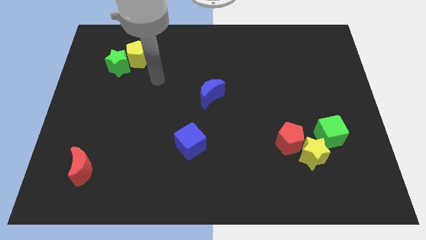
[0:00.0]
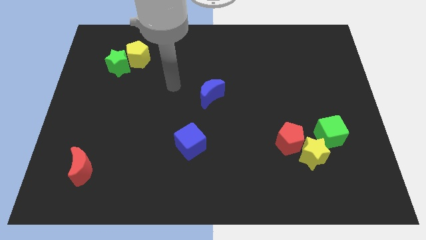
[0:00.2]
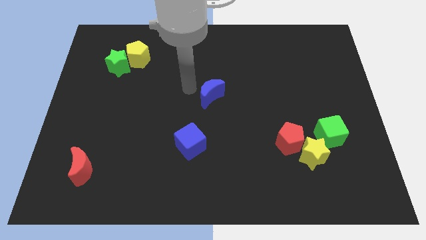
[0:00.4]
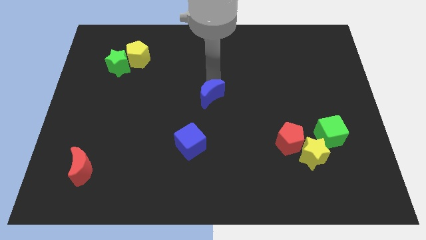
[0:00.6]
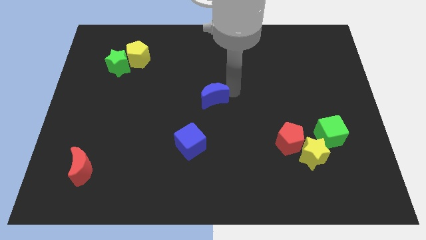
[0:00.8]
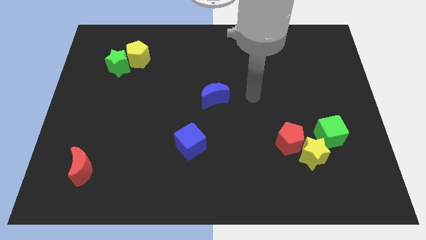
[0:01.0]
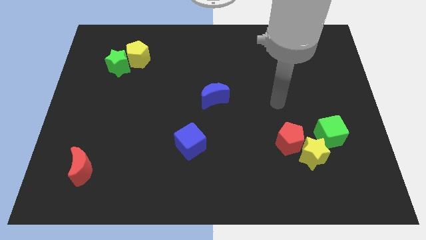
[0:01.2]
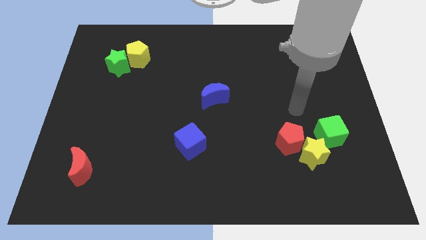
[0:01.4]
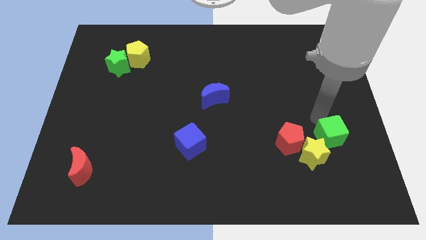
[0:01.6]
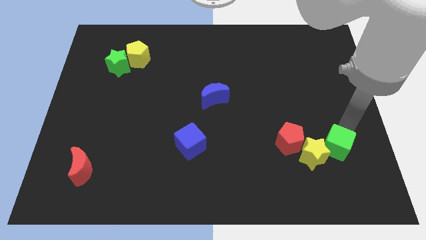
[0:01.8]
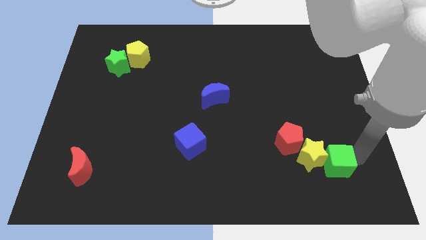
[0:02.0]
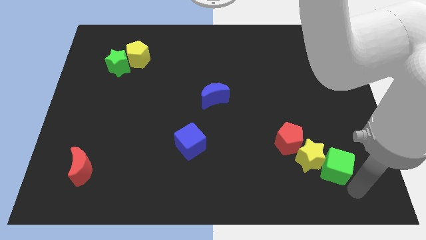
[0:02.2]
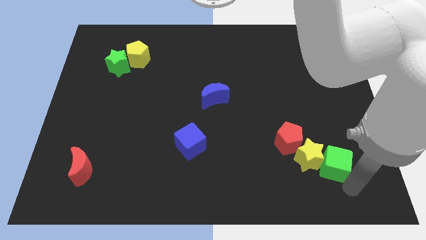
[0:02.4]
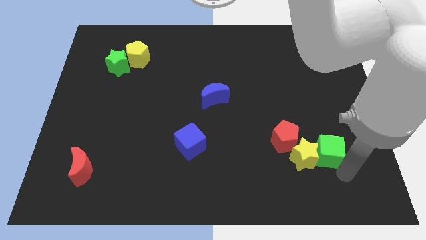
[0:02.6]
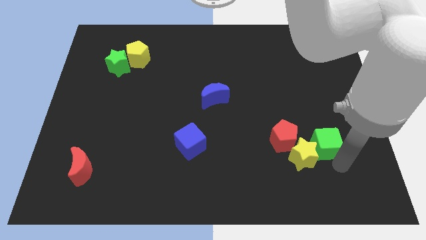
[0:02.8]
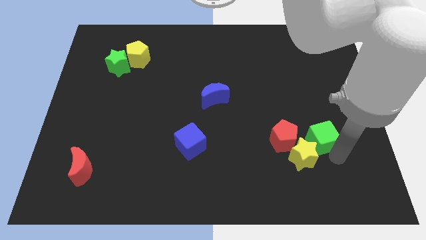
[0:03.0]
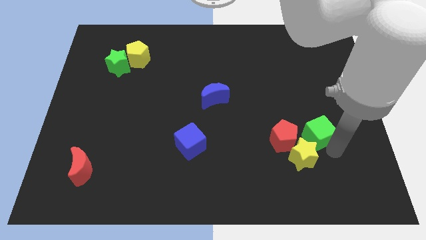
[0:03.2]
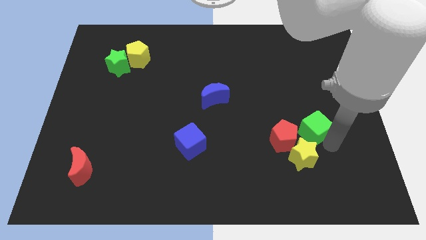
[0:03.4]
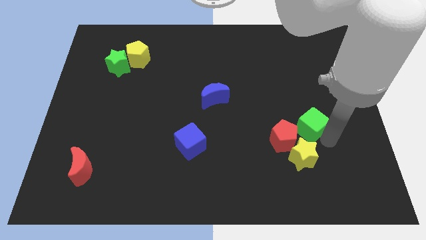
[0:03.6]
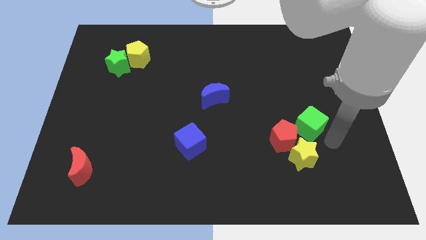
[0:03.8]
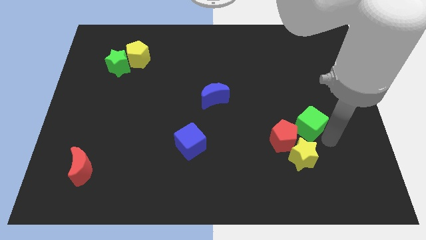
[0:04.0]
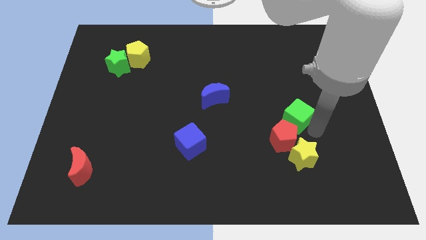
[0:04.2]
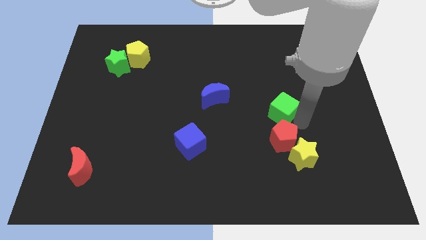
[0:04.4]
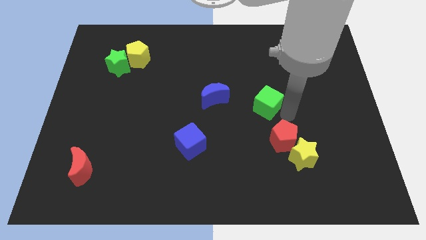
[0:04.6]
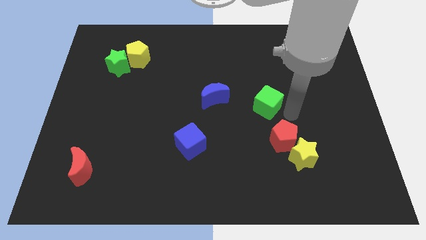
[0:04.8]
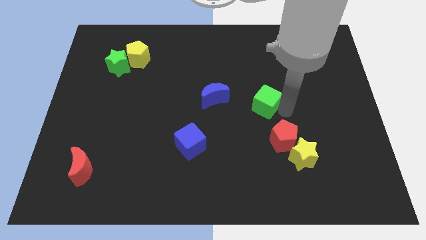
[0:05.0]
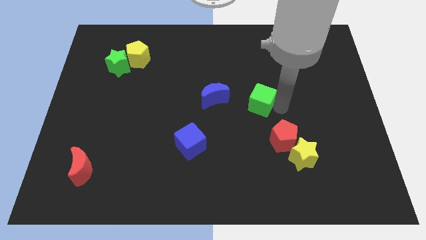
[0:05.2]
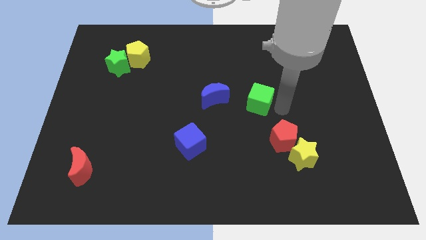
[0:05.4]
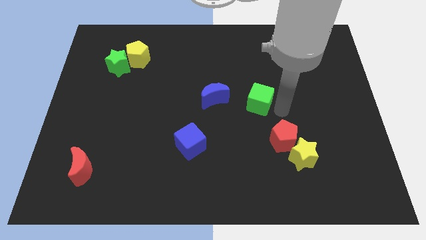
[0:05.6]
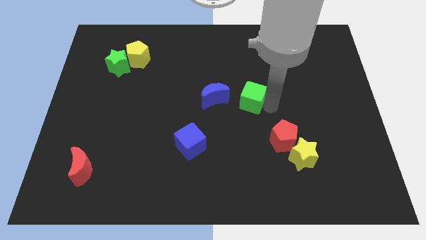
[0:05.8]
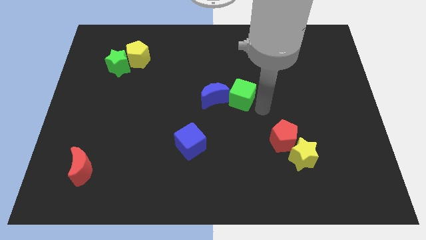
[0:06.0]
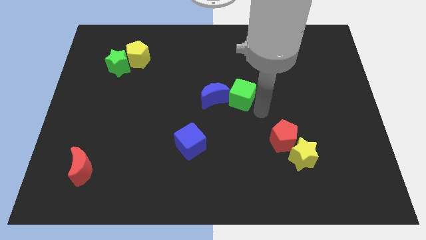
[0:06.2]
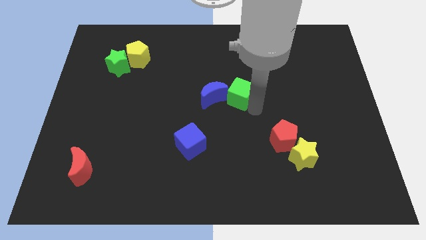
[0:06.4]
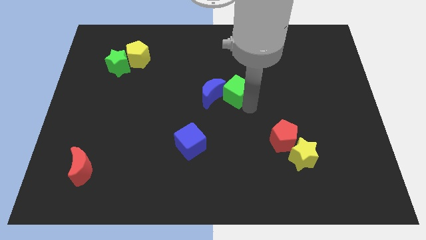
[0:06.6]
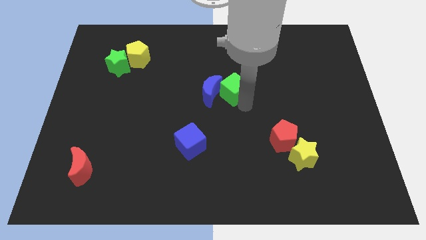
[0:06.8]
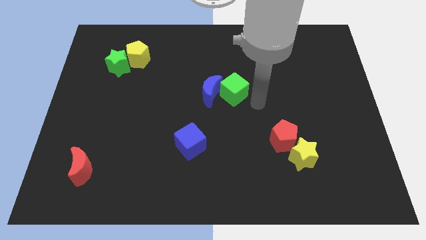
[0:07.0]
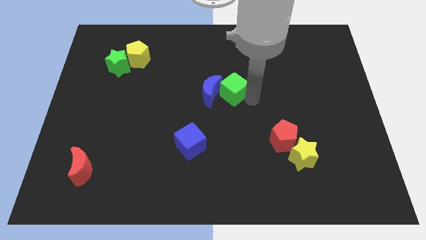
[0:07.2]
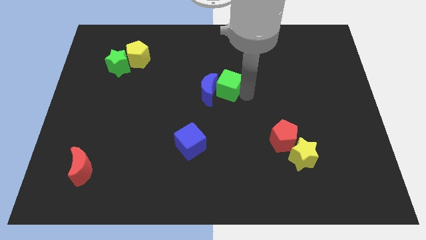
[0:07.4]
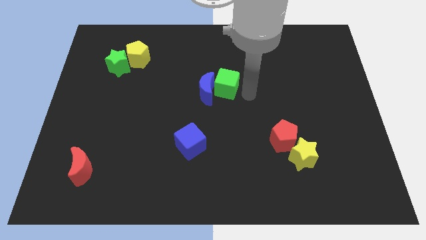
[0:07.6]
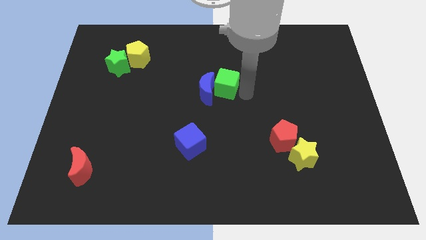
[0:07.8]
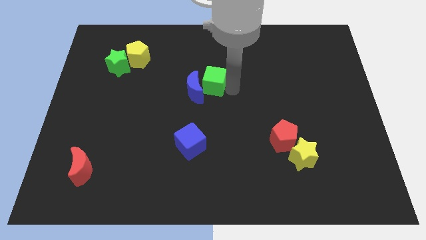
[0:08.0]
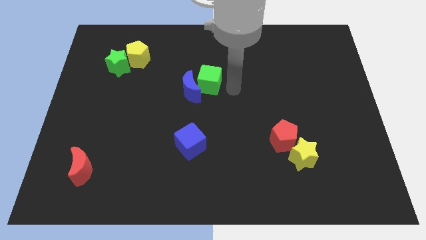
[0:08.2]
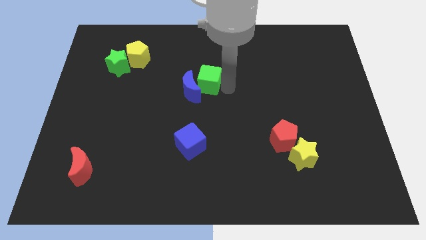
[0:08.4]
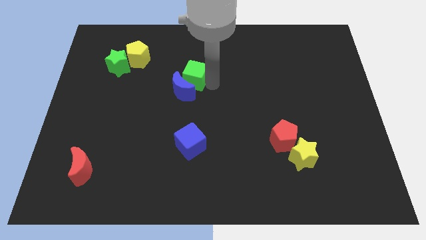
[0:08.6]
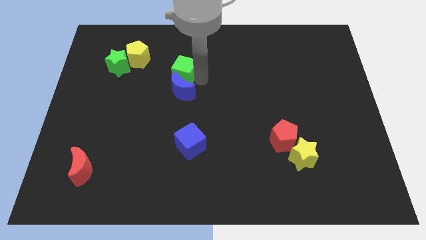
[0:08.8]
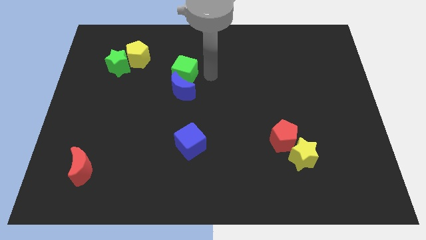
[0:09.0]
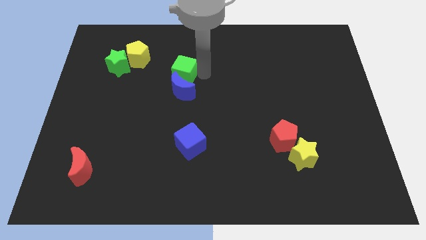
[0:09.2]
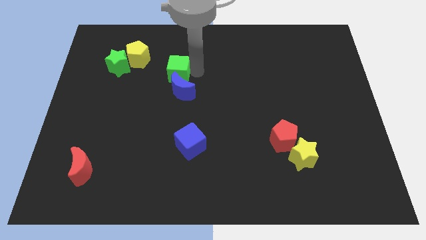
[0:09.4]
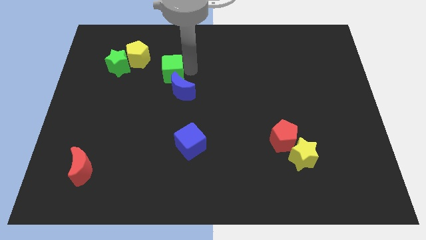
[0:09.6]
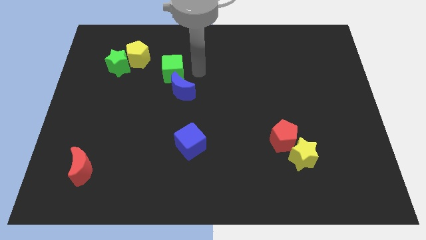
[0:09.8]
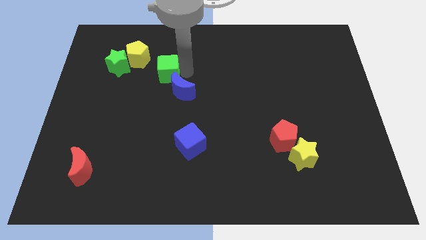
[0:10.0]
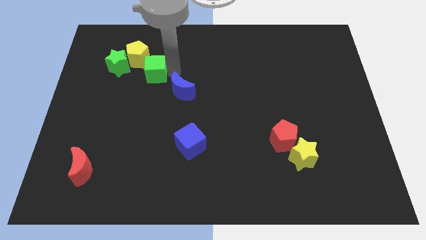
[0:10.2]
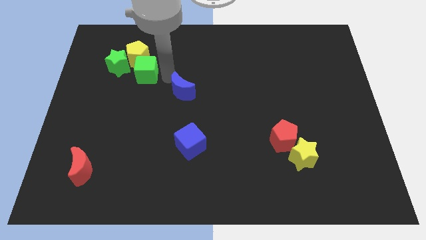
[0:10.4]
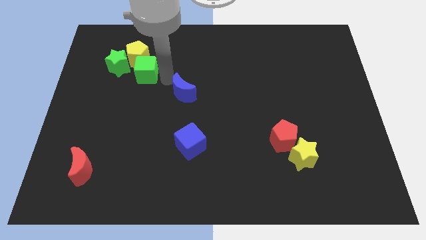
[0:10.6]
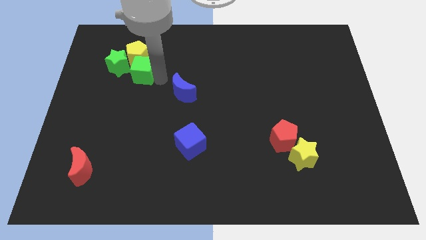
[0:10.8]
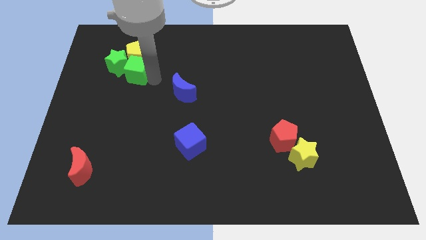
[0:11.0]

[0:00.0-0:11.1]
push the green cube next to the green star

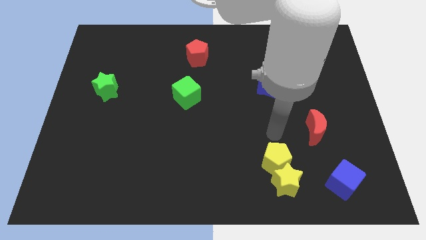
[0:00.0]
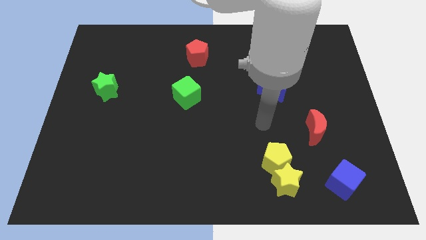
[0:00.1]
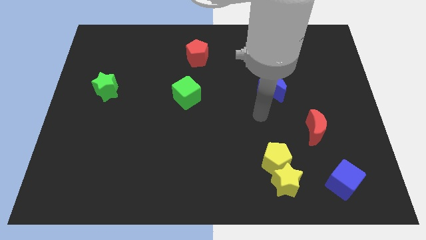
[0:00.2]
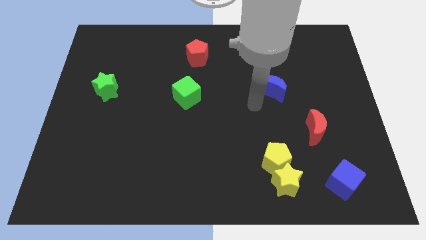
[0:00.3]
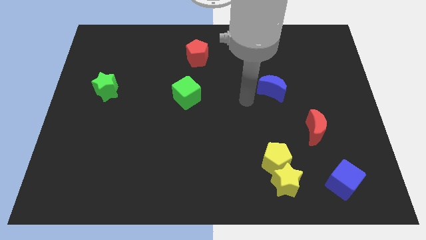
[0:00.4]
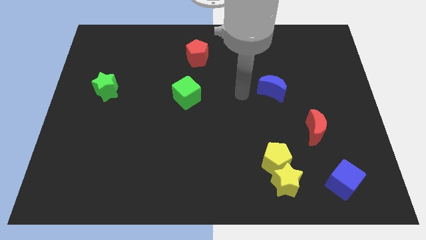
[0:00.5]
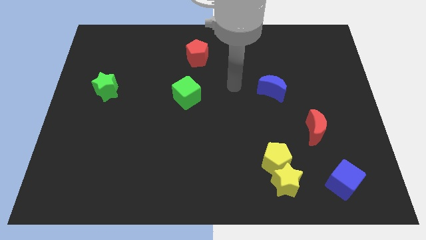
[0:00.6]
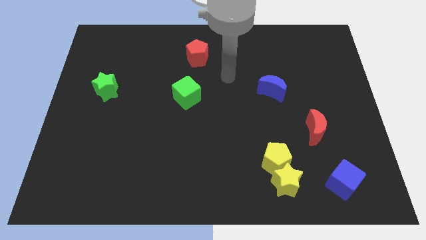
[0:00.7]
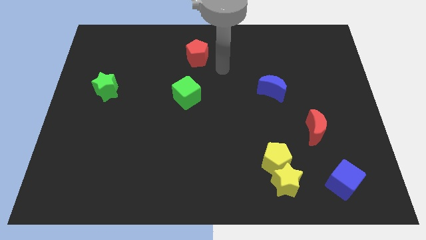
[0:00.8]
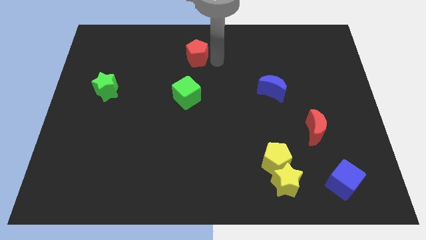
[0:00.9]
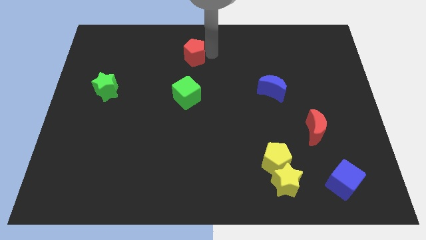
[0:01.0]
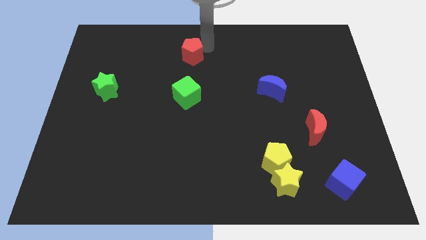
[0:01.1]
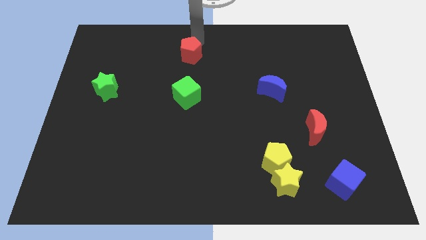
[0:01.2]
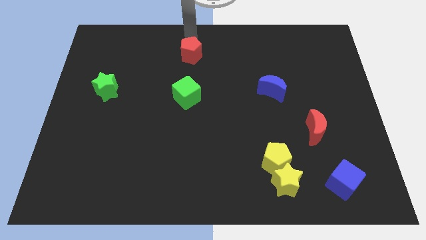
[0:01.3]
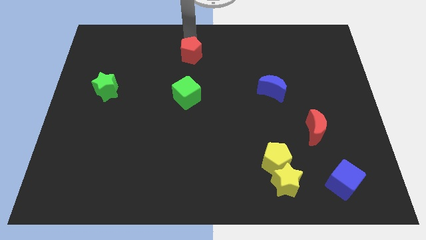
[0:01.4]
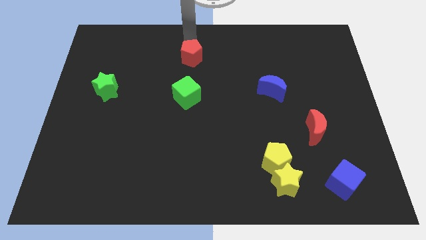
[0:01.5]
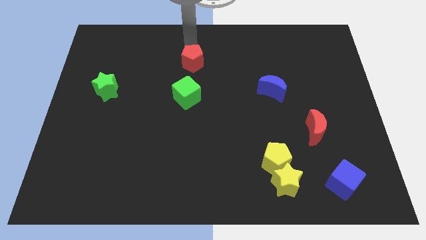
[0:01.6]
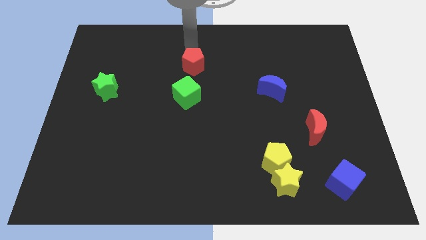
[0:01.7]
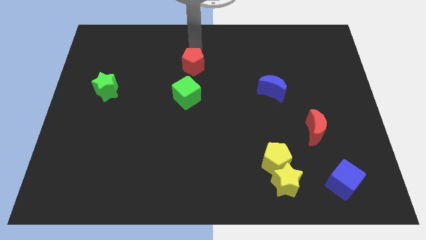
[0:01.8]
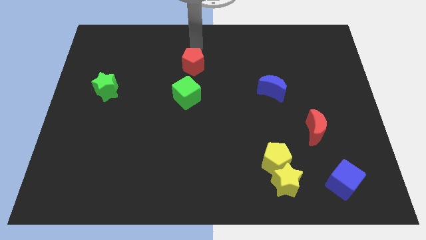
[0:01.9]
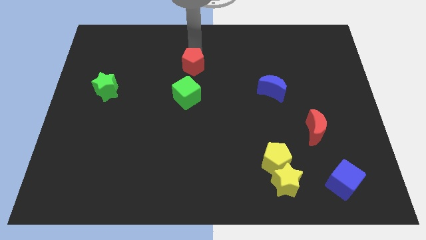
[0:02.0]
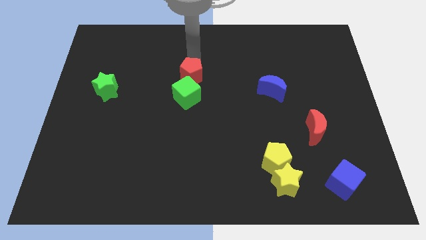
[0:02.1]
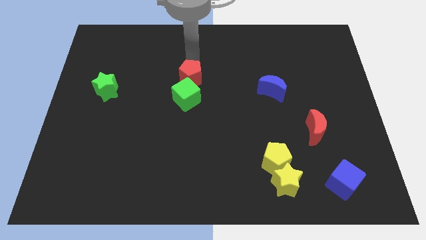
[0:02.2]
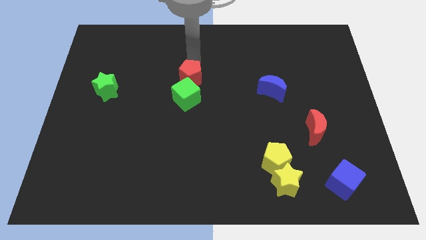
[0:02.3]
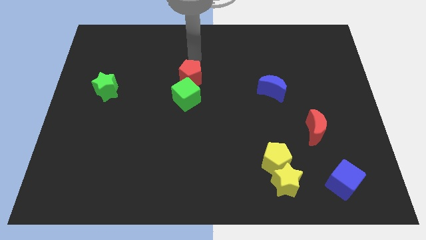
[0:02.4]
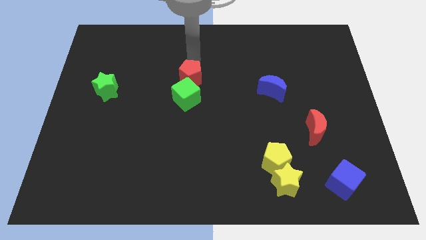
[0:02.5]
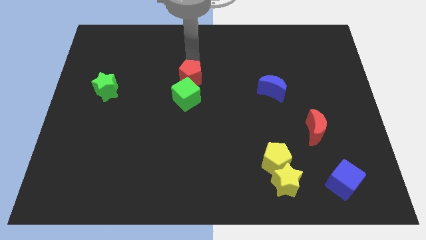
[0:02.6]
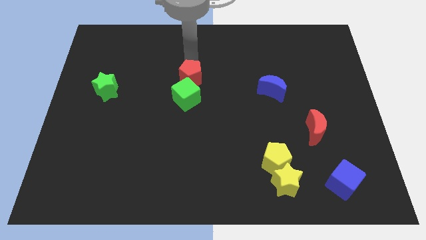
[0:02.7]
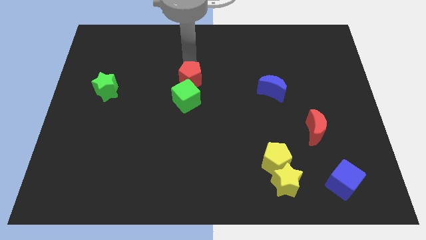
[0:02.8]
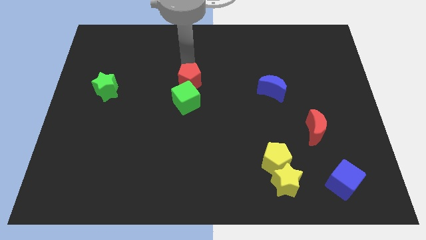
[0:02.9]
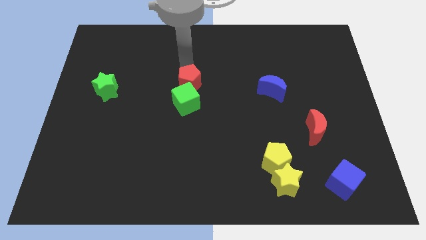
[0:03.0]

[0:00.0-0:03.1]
slide the red pentagon to the green cube
